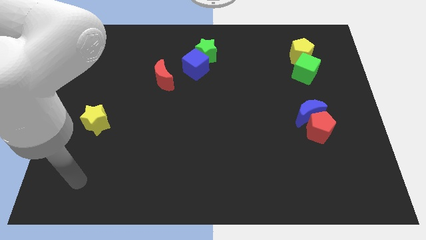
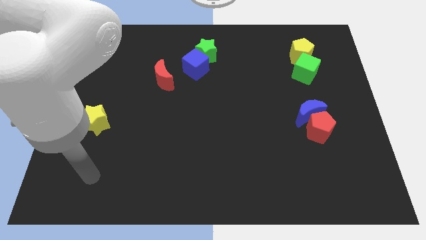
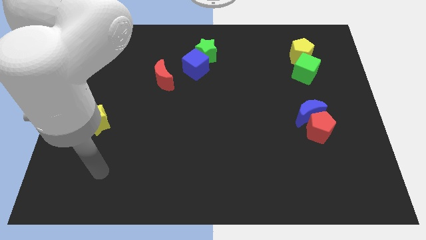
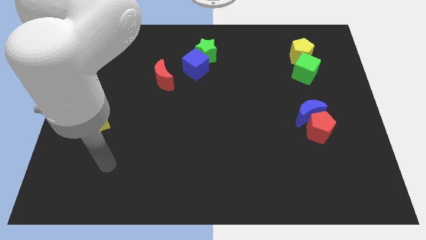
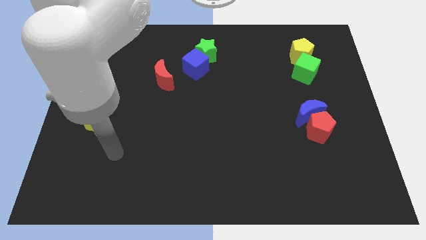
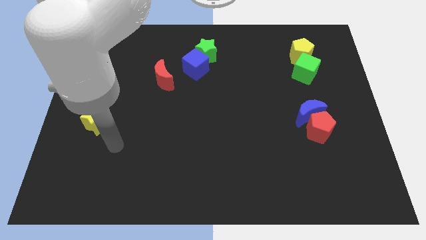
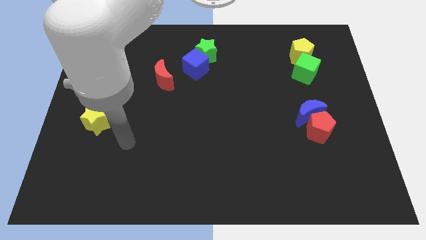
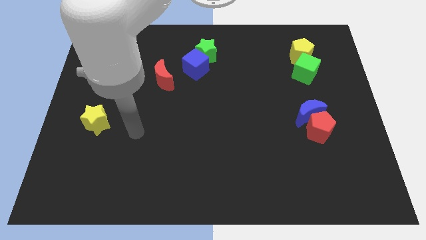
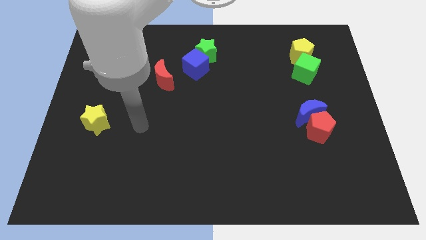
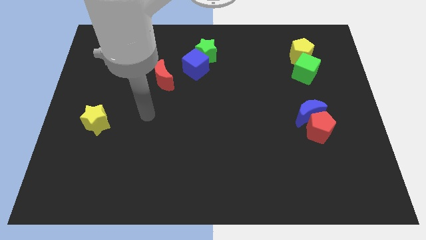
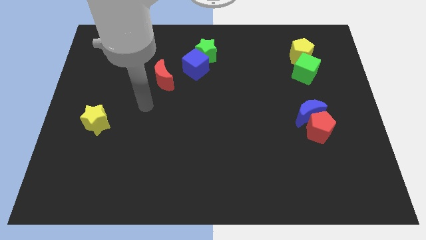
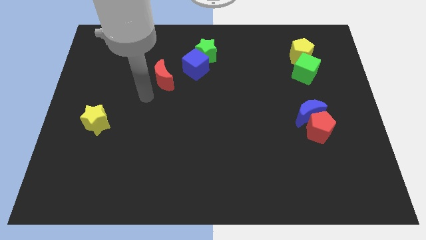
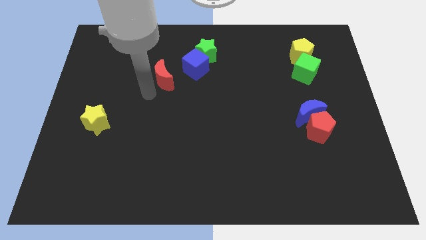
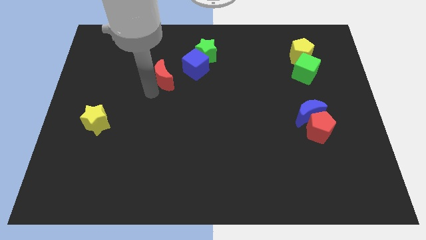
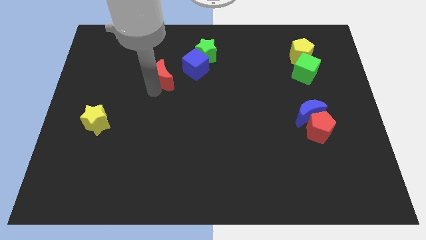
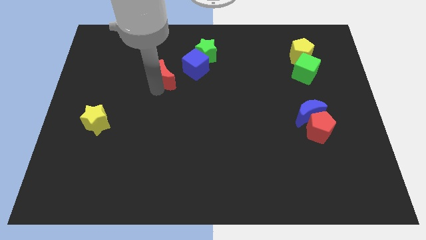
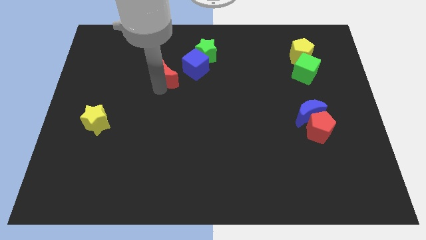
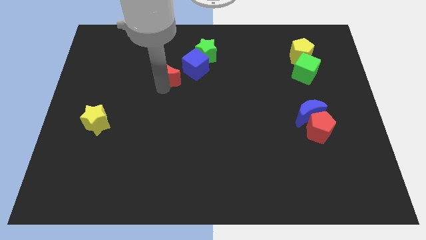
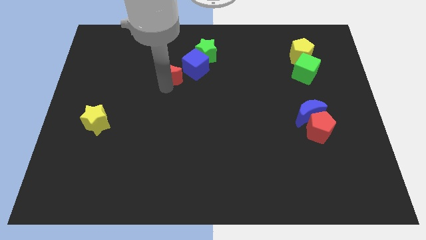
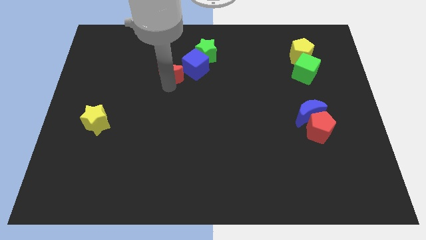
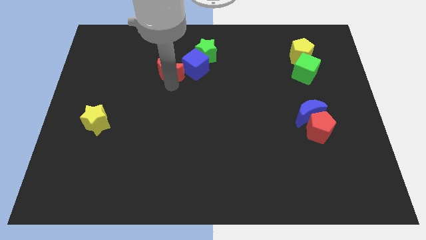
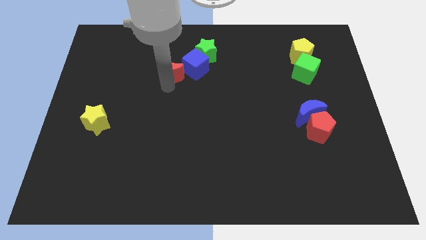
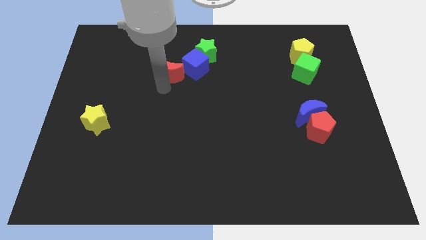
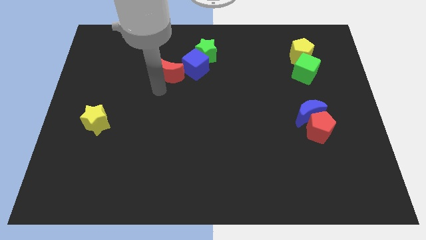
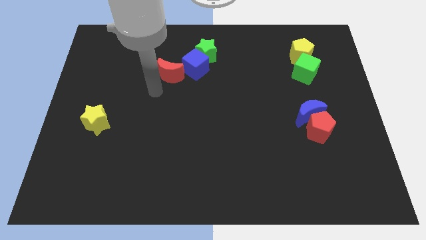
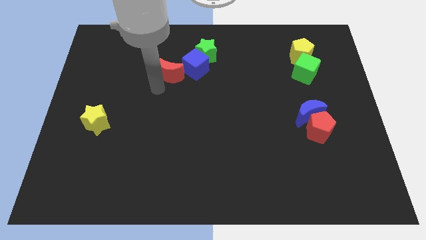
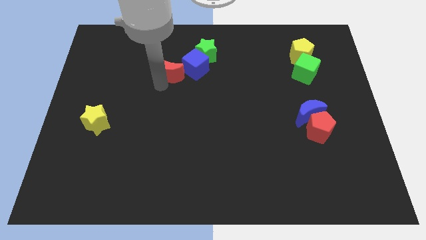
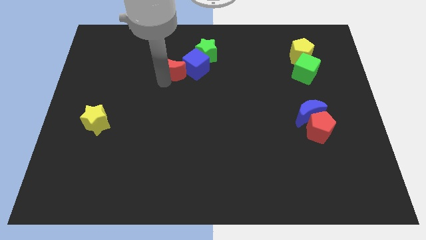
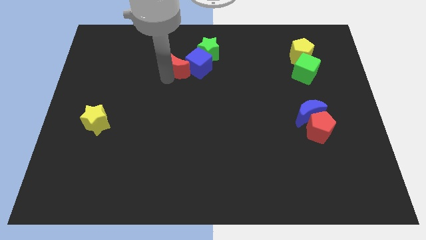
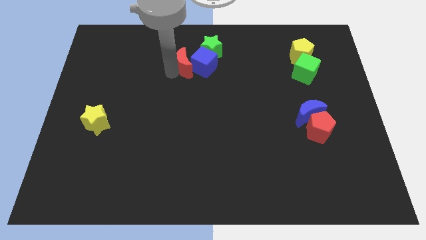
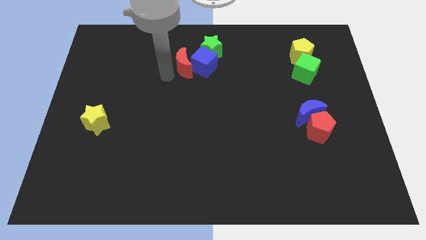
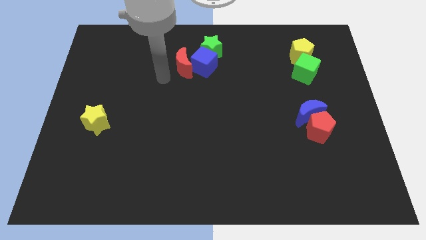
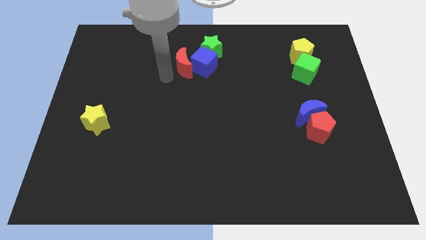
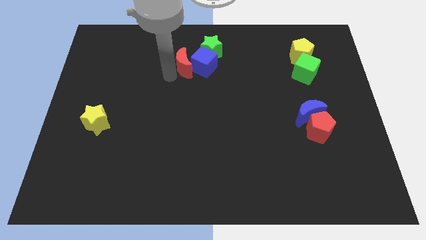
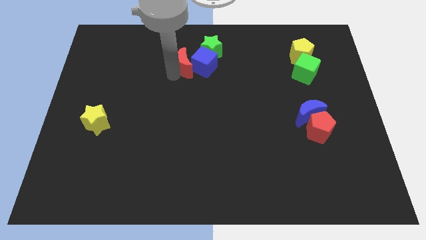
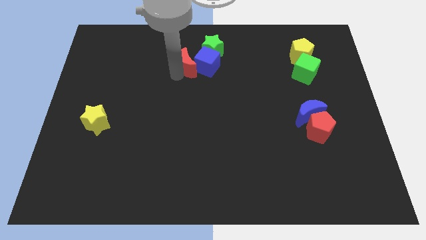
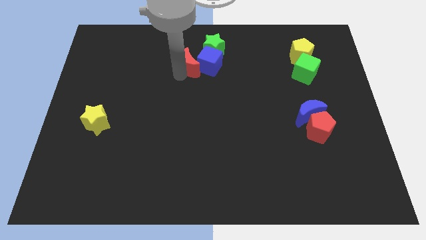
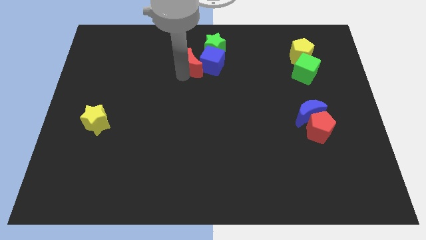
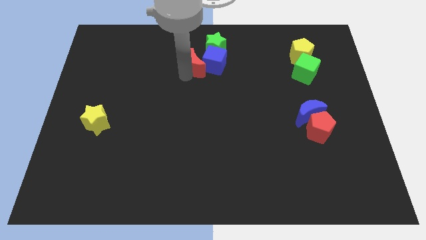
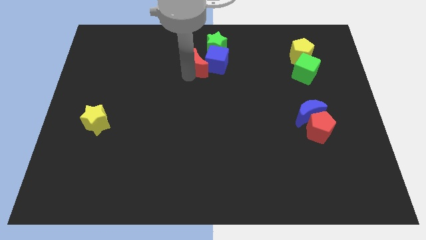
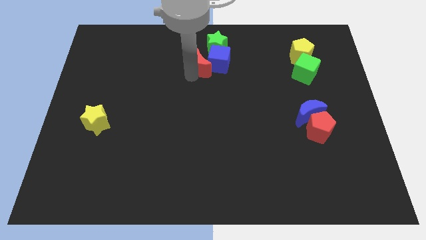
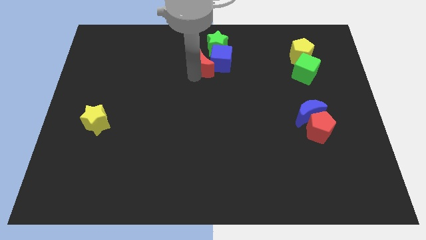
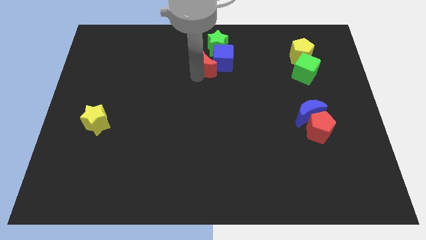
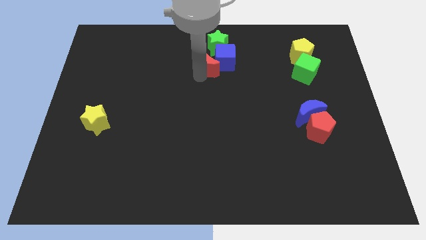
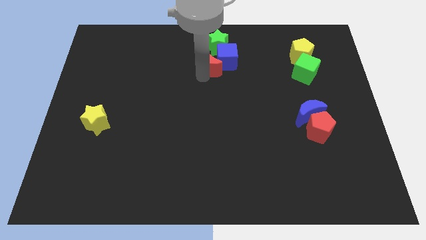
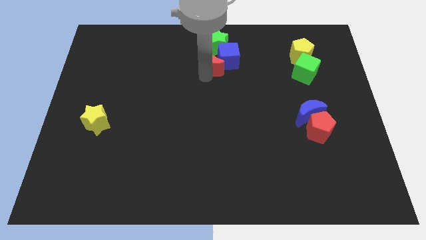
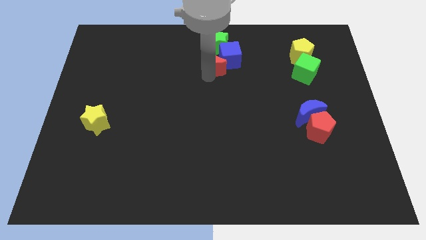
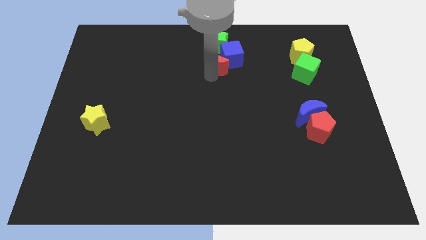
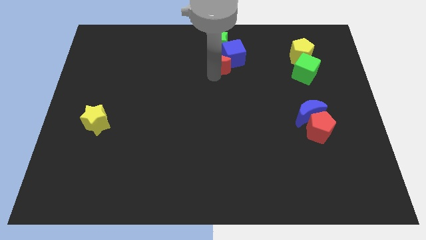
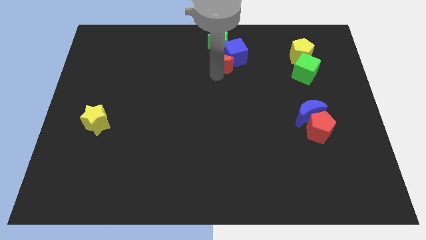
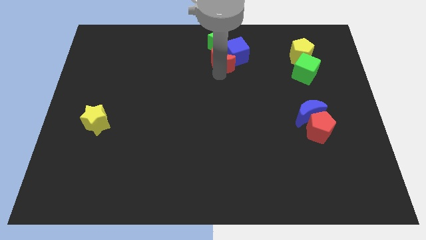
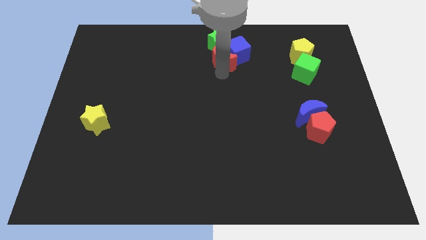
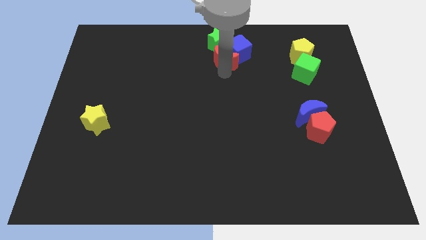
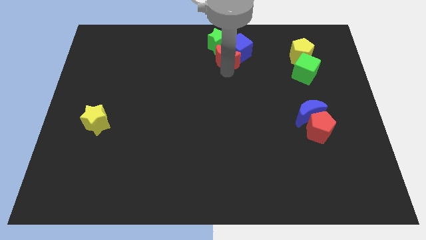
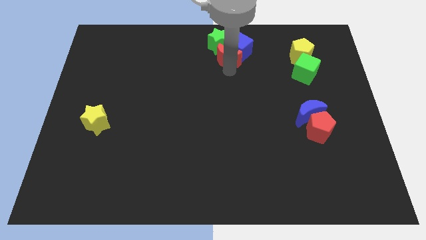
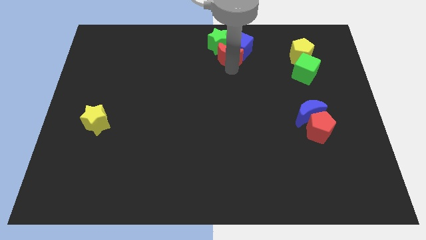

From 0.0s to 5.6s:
slide the red moon close to the green star

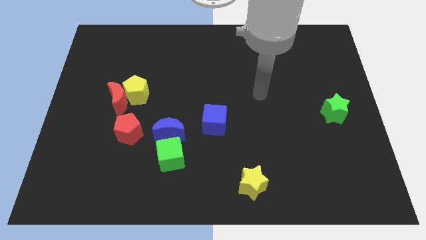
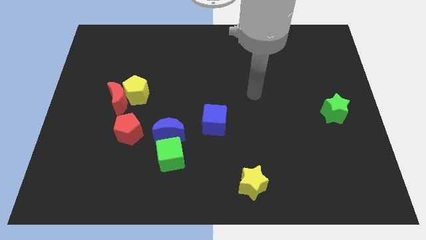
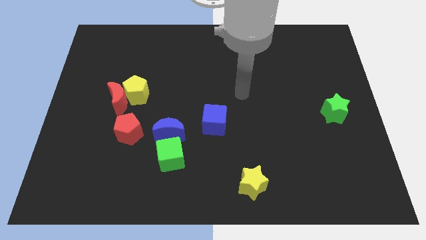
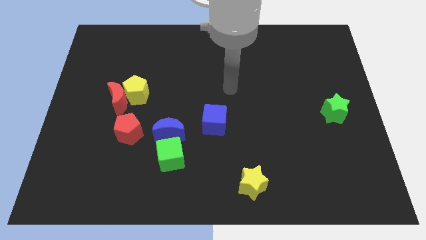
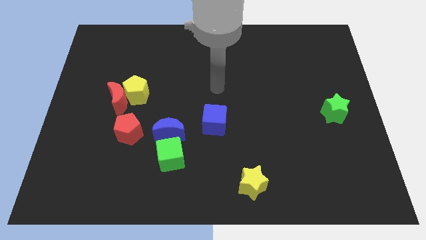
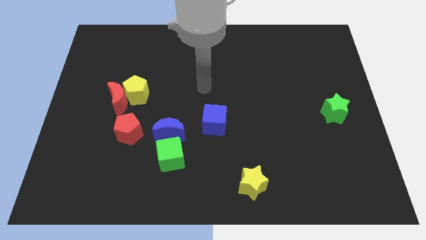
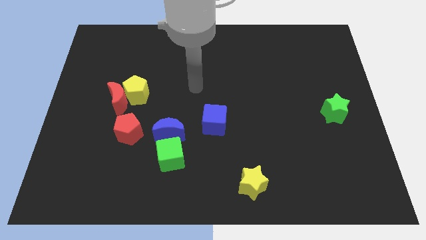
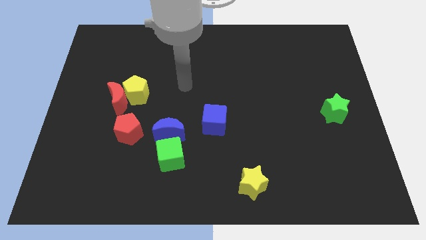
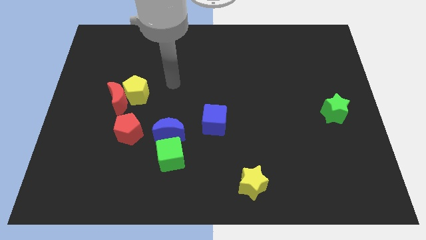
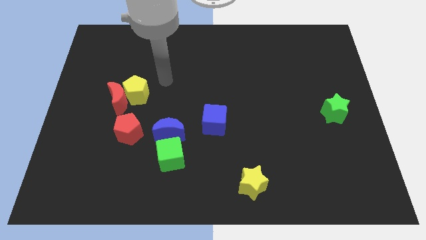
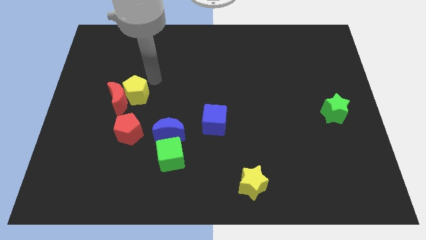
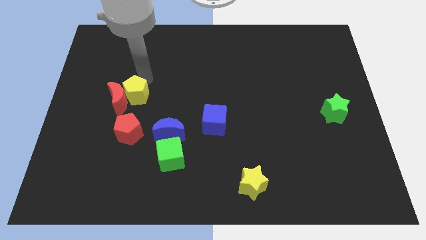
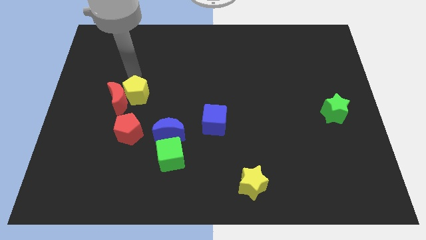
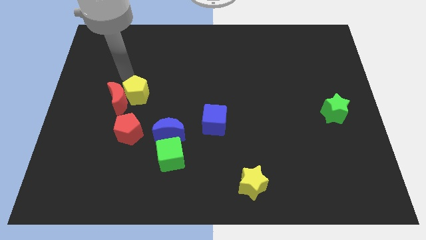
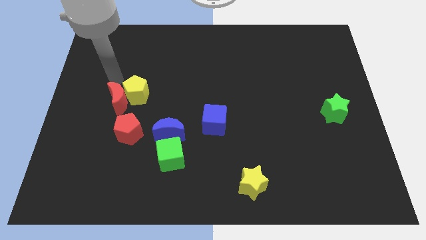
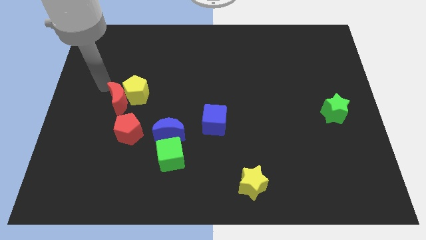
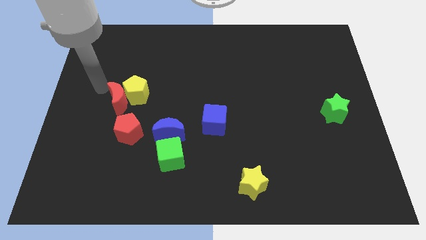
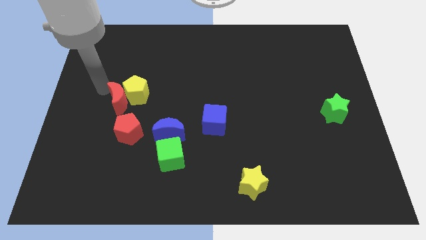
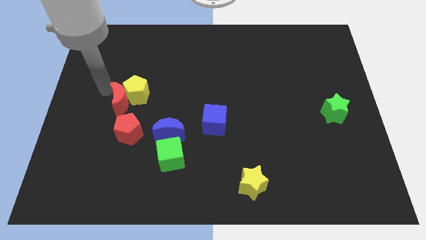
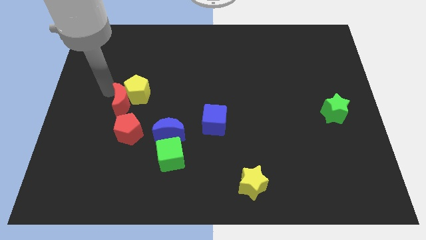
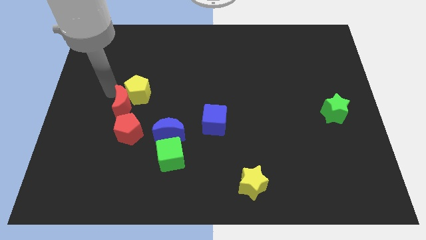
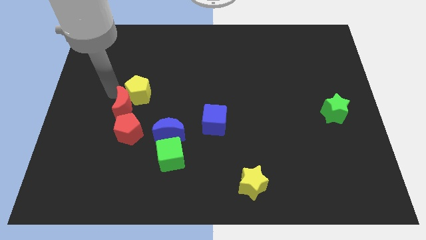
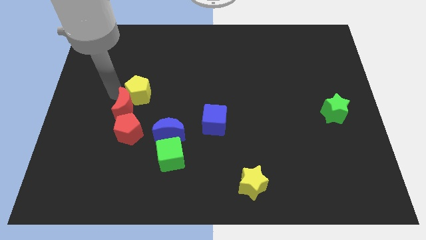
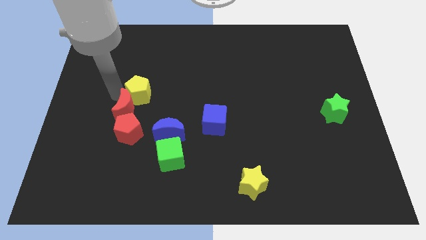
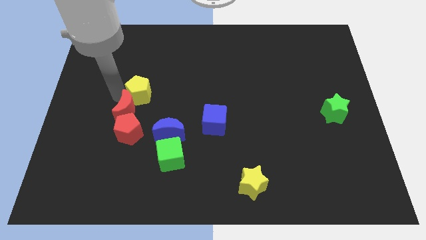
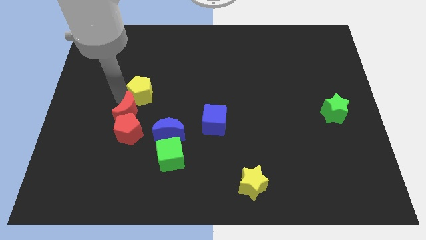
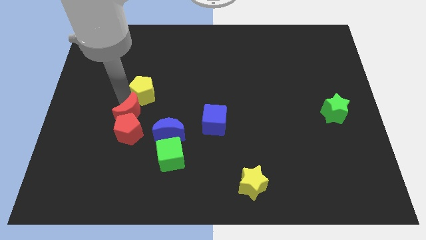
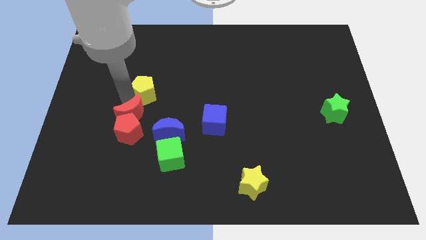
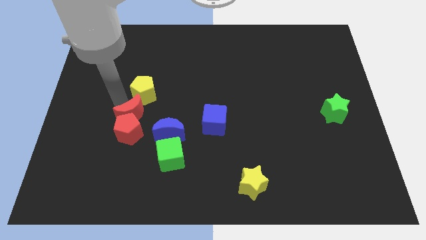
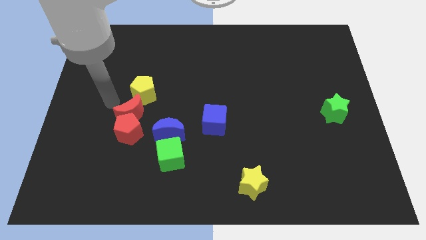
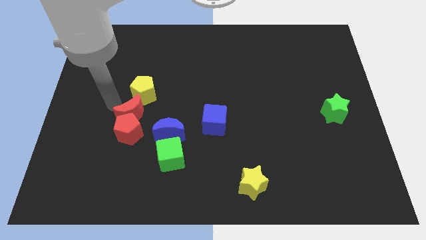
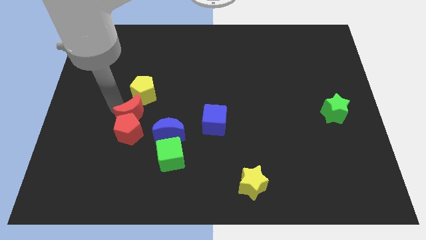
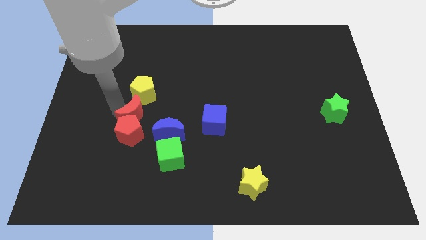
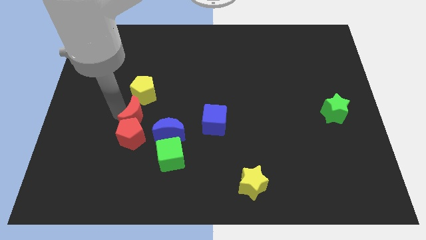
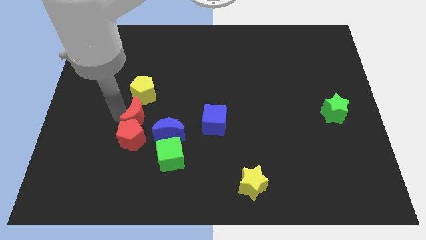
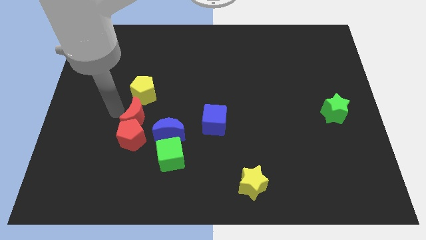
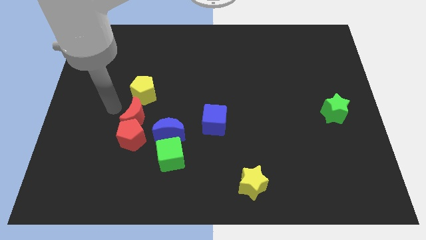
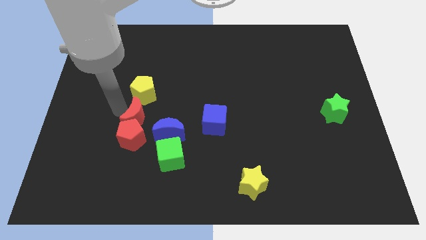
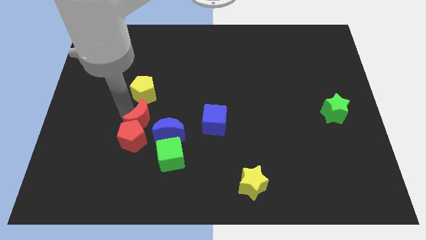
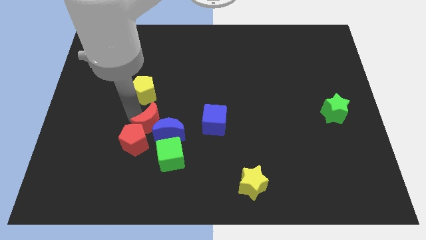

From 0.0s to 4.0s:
slide the red moon towards the blue moon
